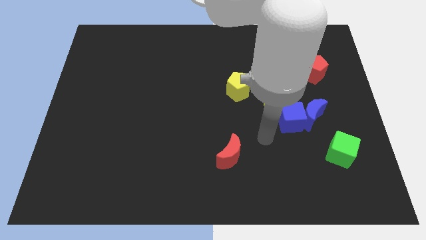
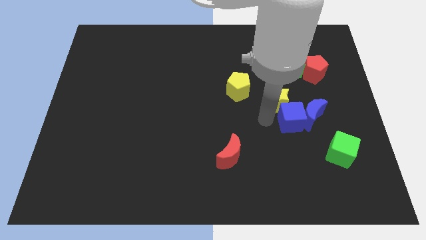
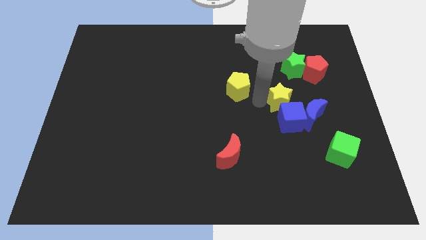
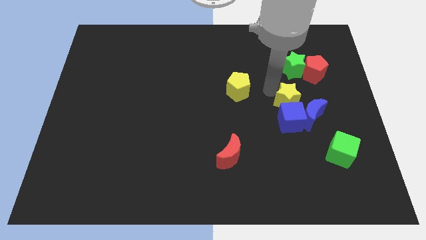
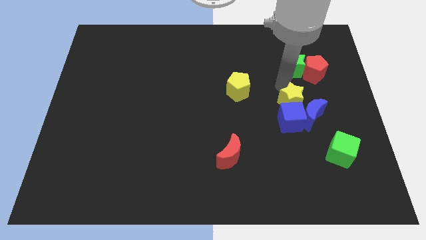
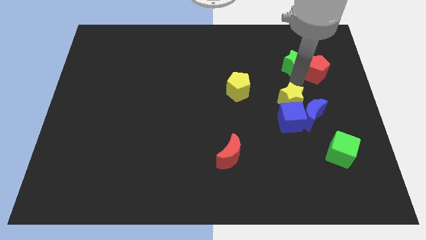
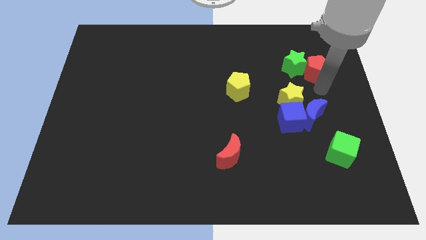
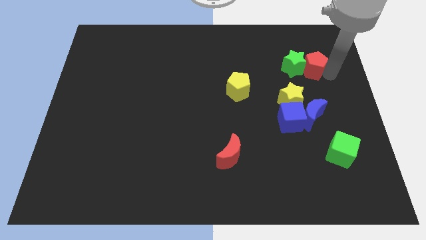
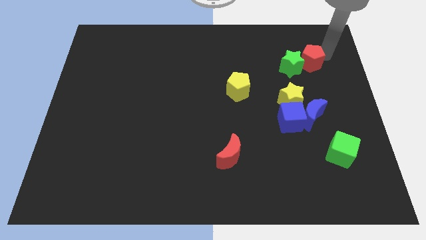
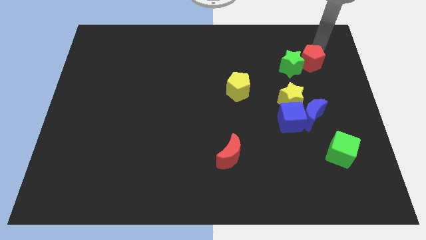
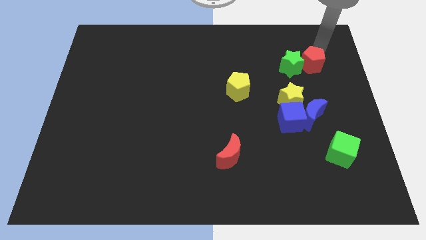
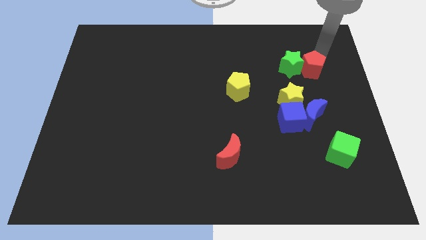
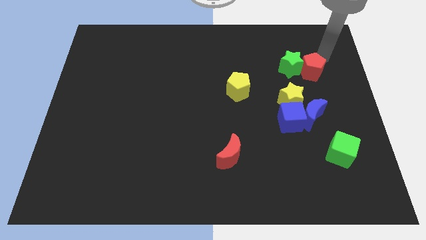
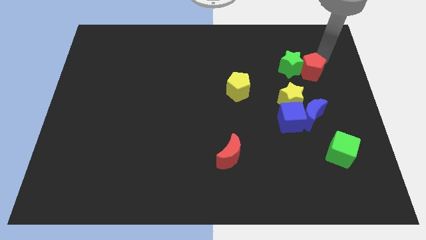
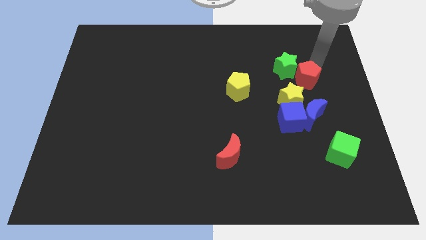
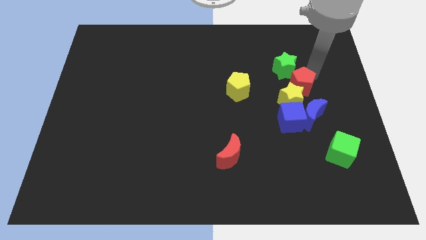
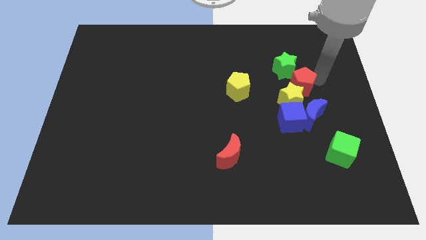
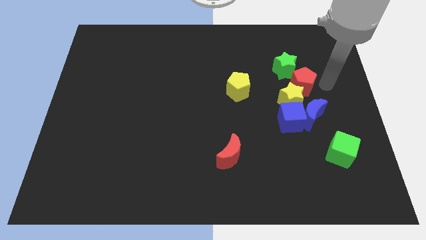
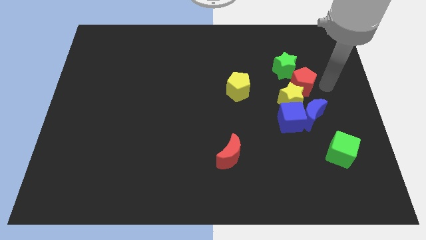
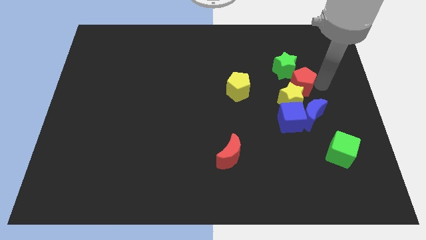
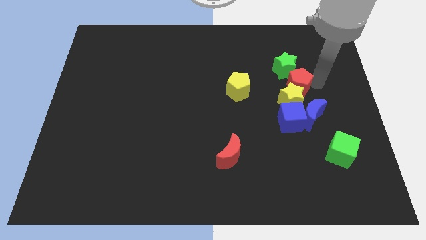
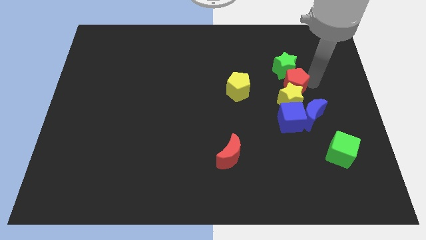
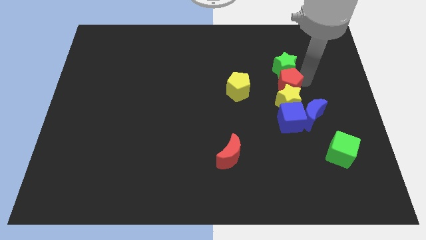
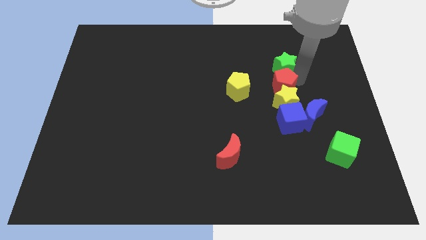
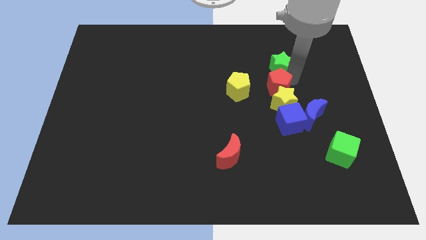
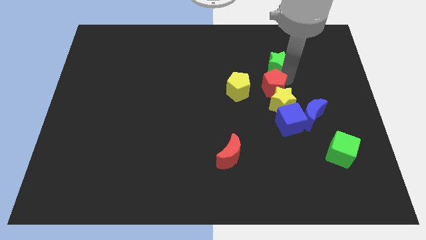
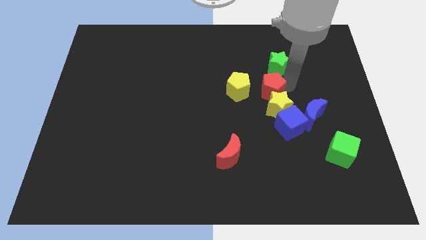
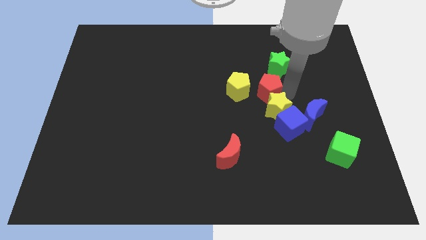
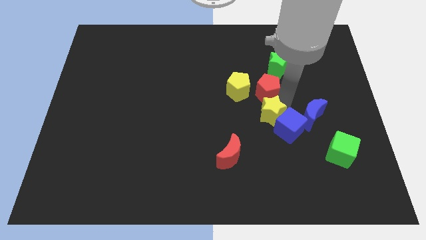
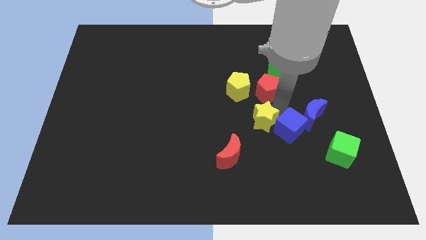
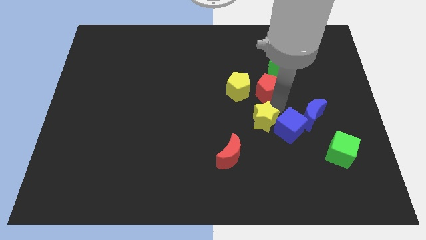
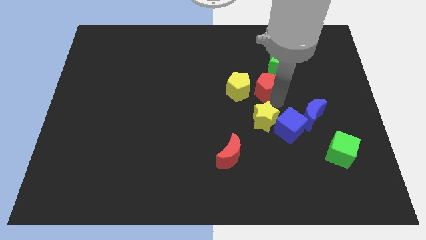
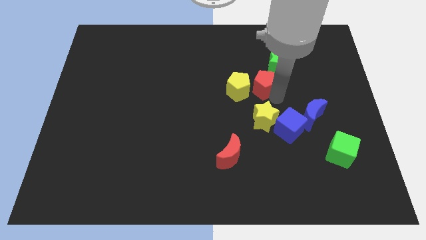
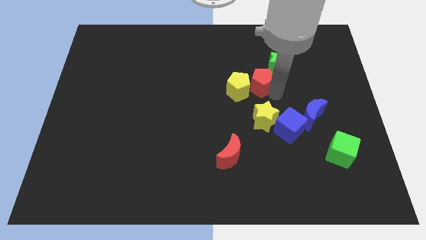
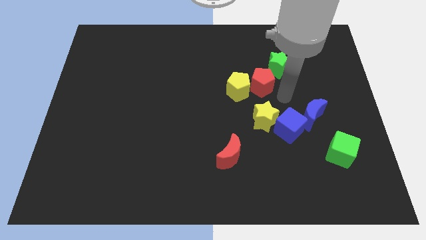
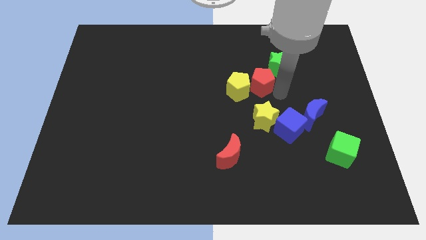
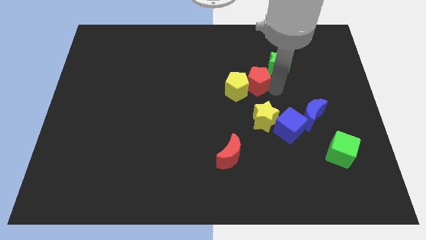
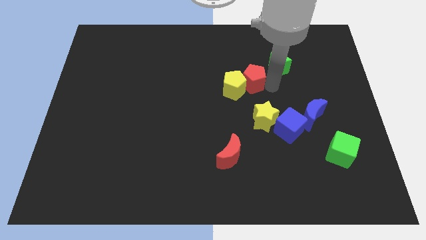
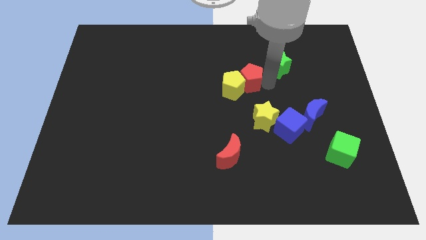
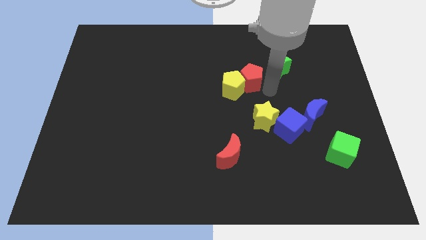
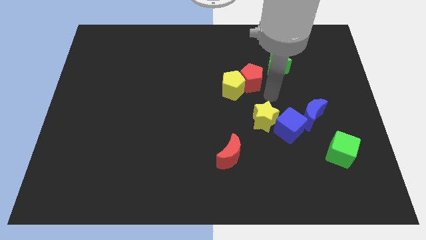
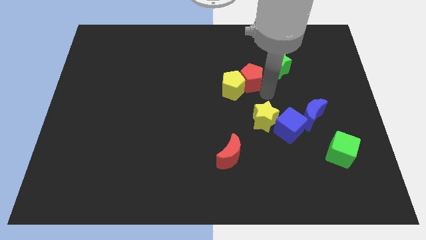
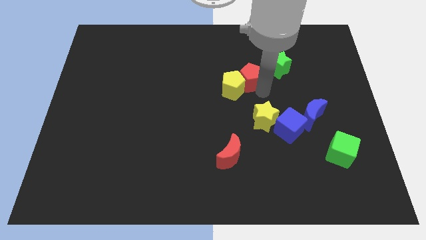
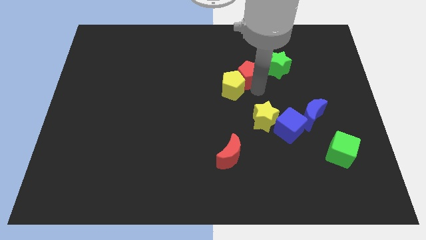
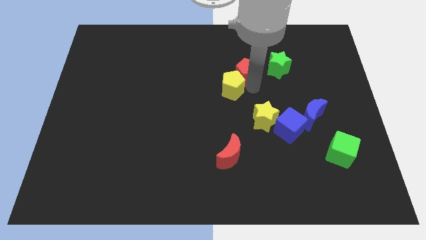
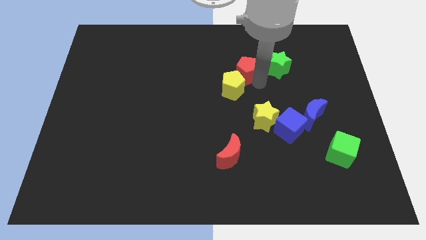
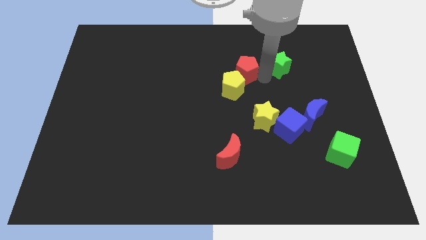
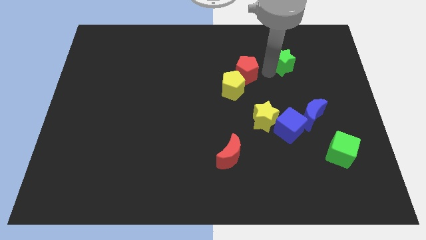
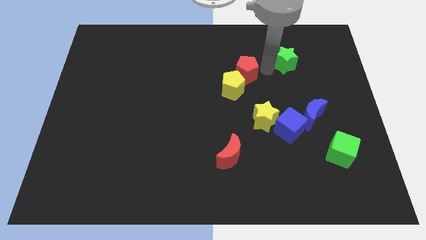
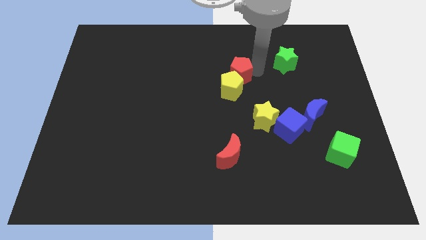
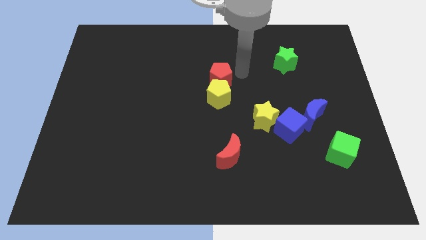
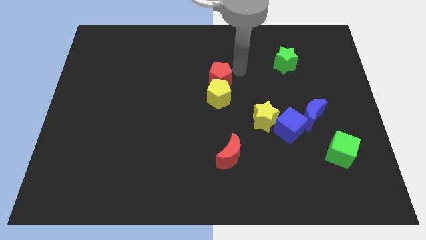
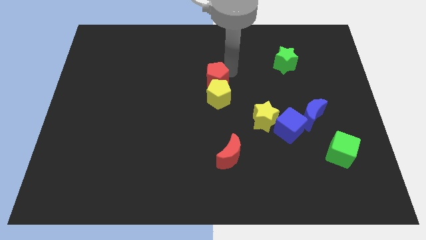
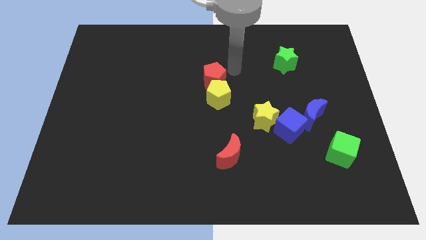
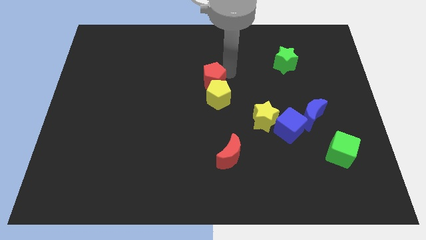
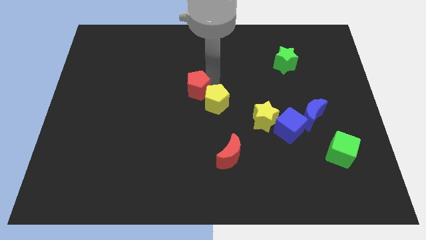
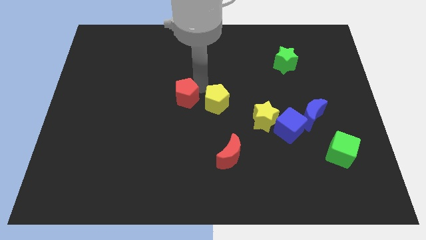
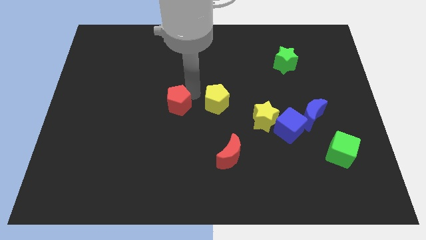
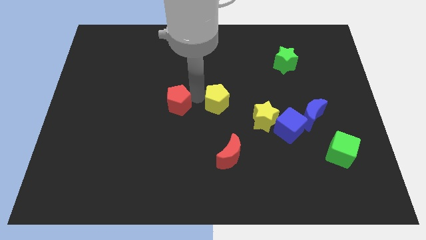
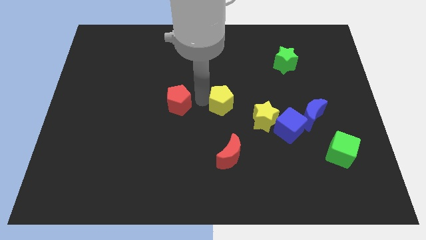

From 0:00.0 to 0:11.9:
slide the red pentagon left of the yellow pentagon

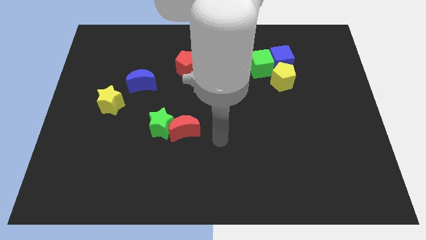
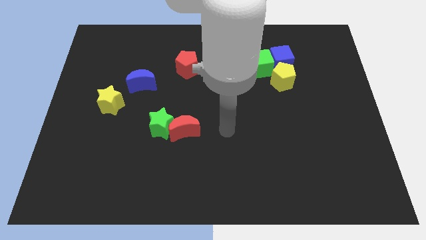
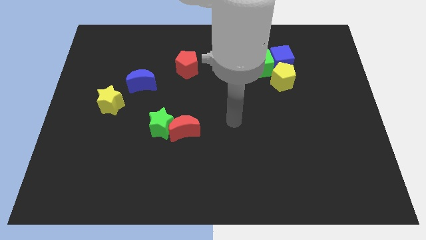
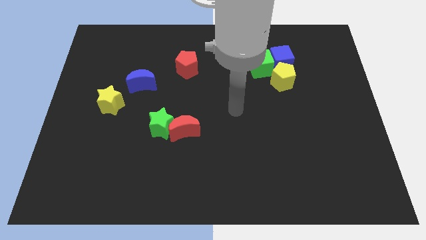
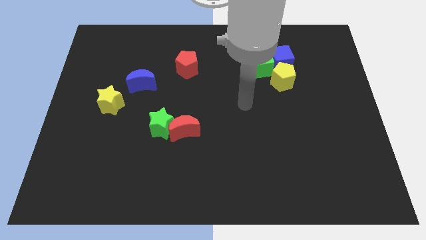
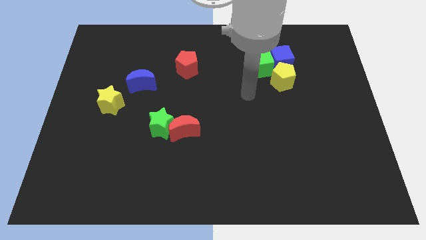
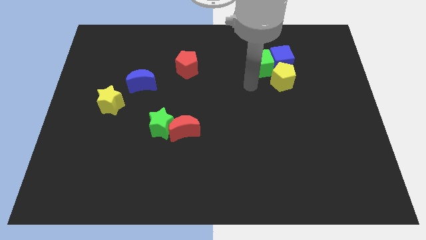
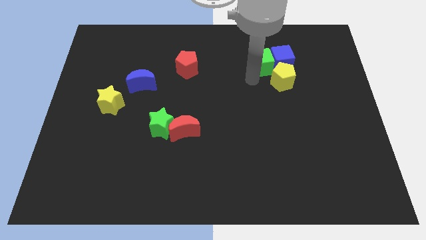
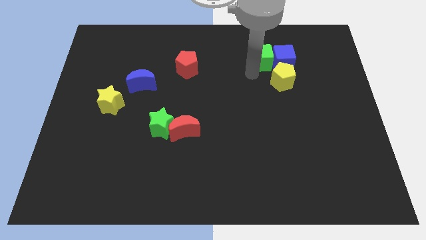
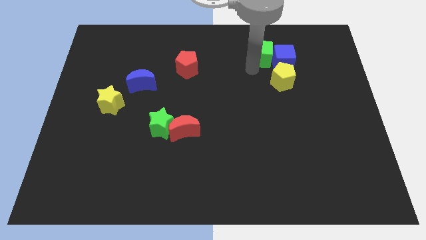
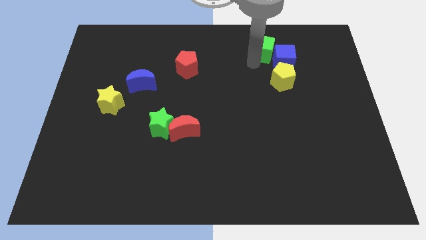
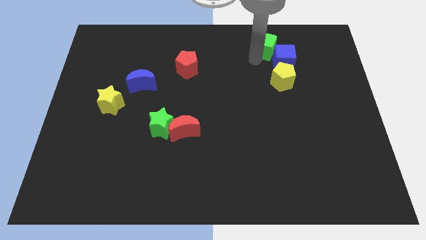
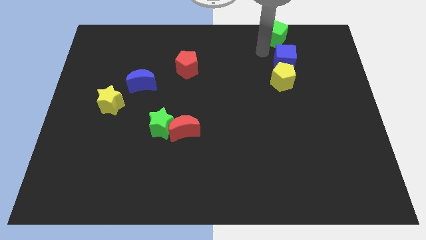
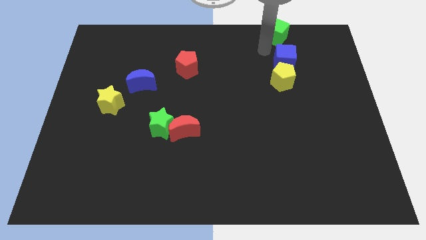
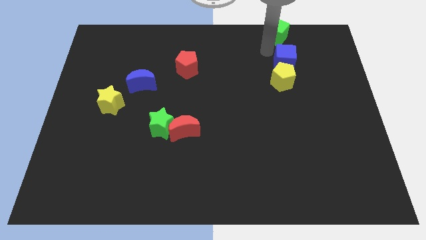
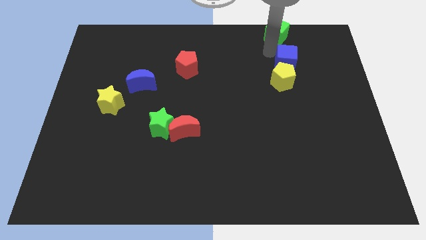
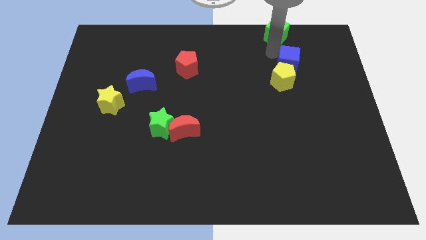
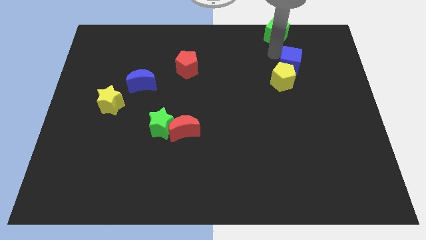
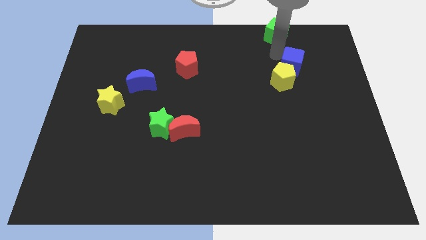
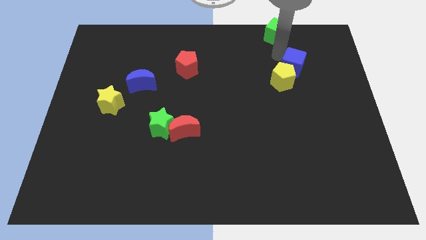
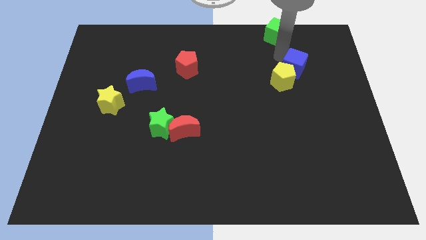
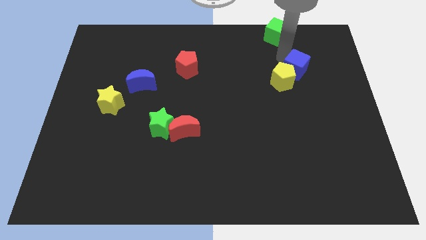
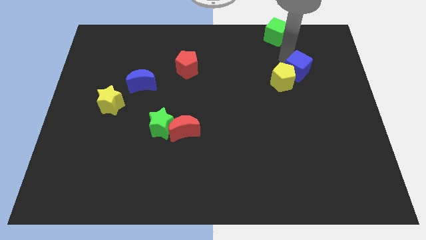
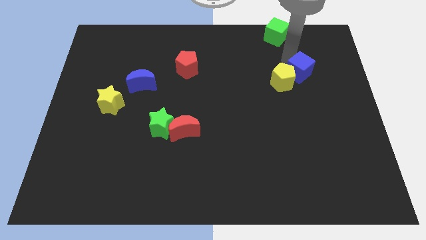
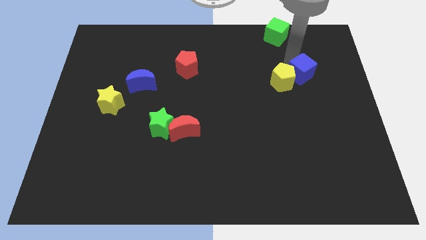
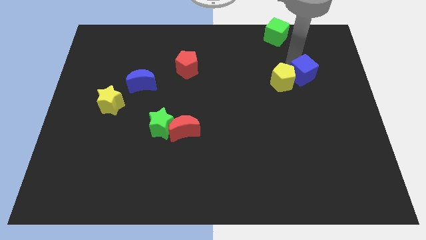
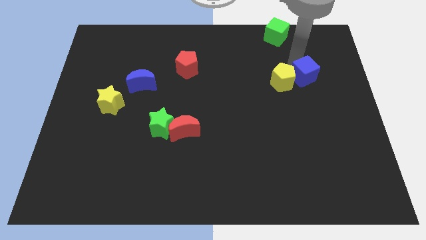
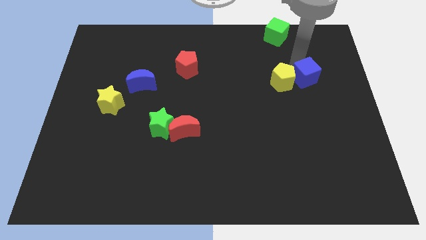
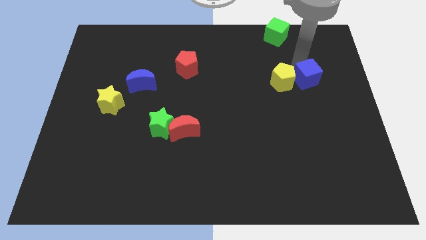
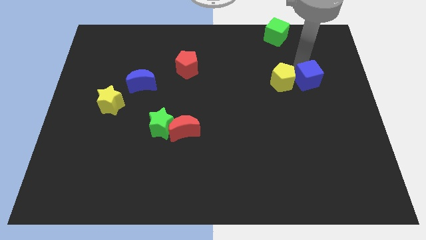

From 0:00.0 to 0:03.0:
put the blue cube diagonally down and to the right of the yellow pentagon
